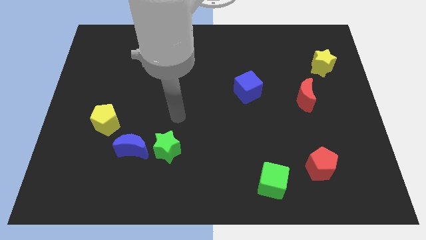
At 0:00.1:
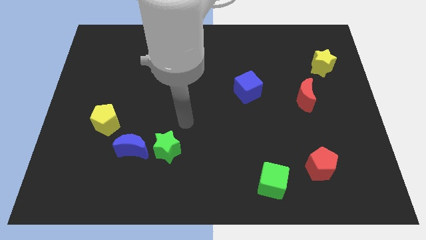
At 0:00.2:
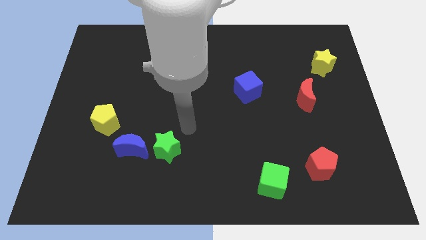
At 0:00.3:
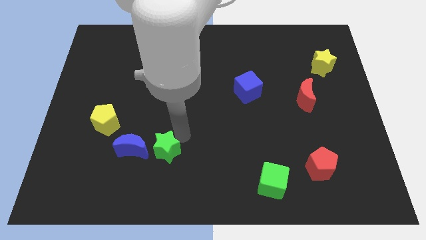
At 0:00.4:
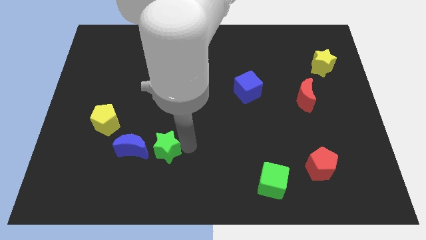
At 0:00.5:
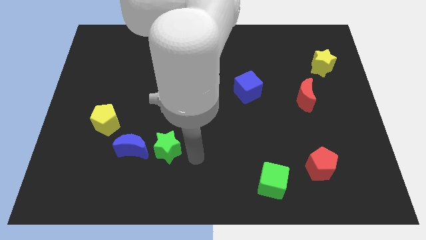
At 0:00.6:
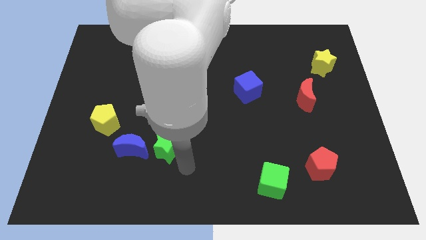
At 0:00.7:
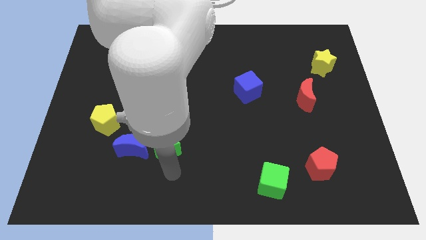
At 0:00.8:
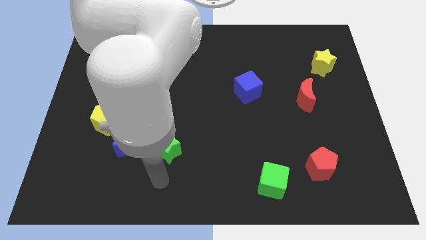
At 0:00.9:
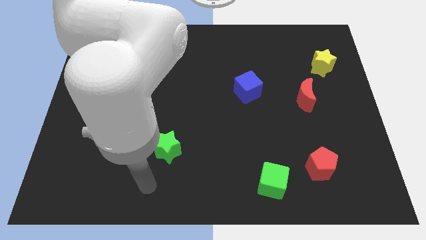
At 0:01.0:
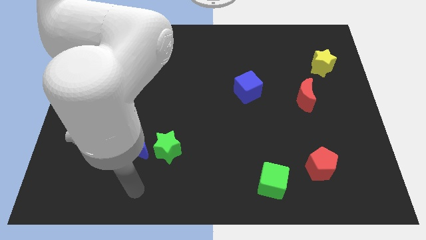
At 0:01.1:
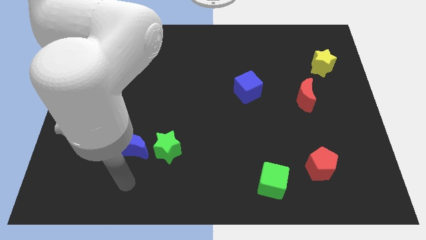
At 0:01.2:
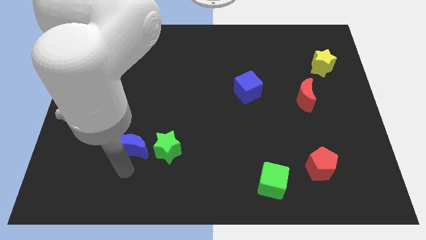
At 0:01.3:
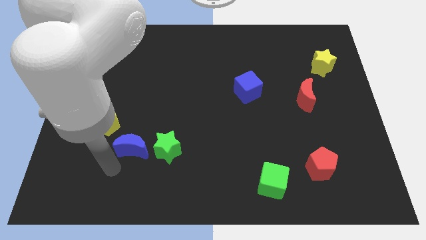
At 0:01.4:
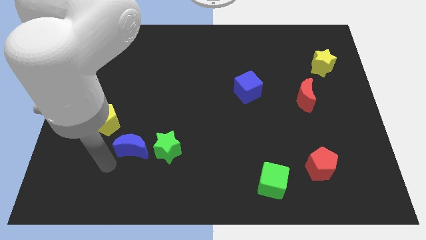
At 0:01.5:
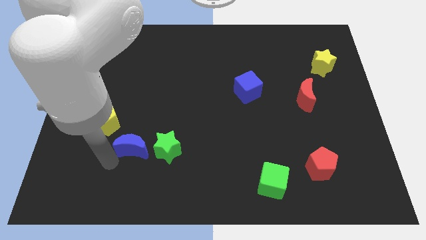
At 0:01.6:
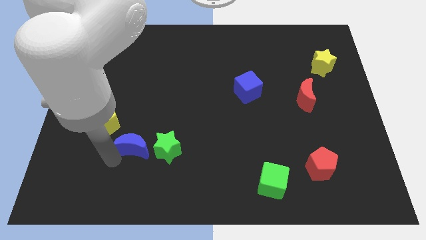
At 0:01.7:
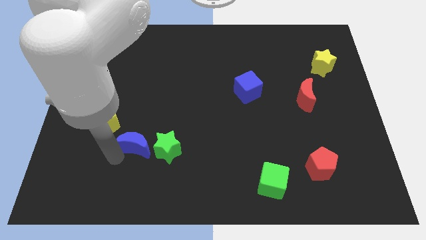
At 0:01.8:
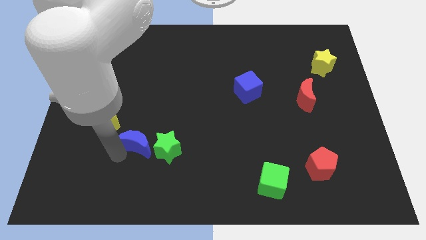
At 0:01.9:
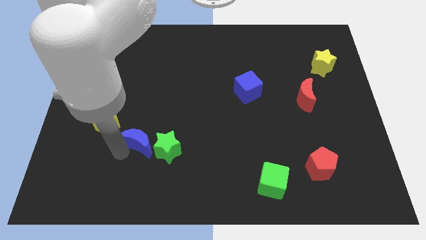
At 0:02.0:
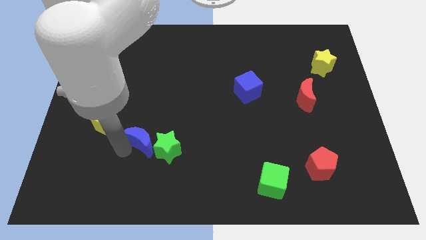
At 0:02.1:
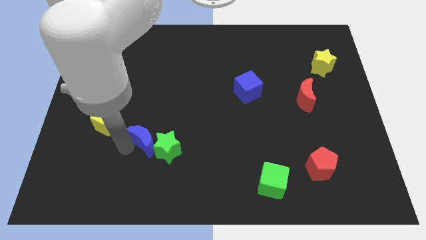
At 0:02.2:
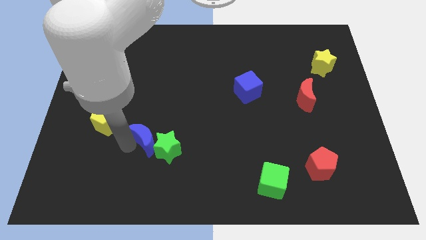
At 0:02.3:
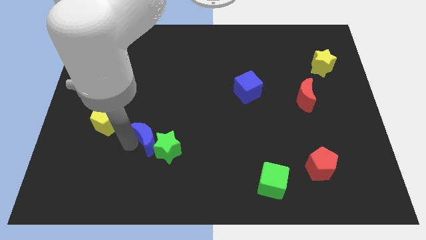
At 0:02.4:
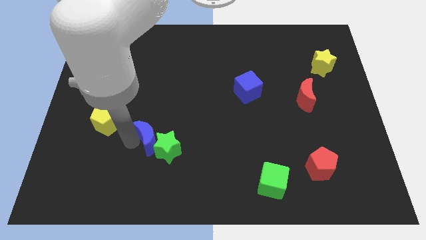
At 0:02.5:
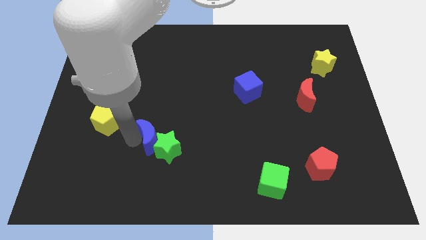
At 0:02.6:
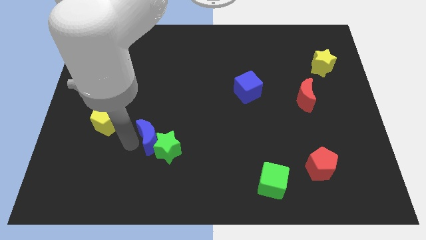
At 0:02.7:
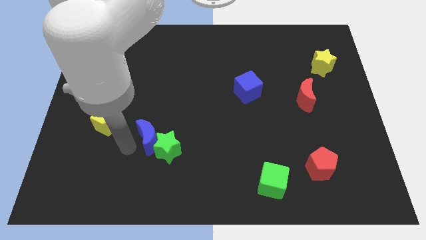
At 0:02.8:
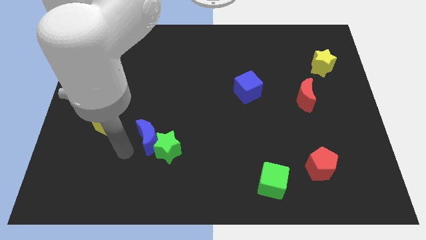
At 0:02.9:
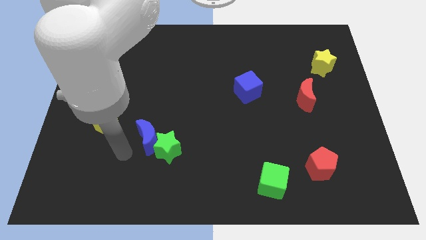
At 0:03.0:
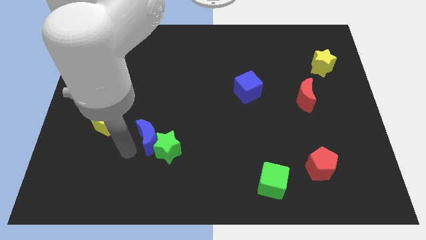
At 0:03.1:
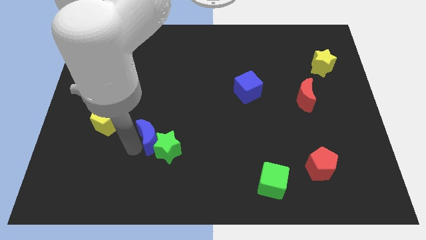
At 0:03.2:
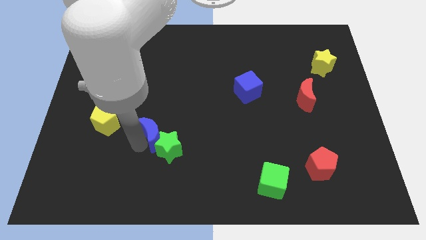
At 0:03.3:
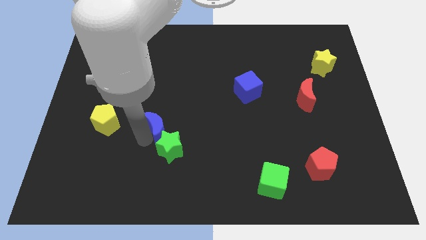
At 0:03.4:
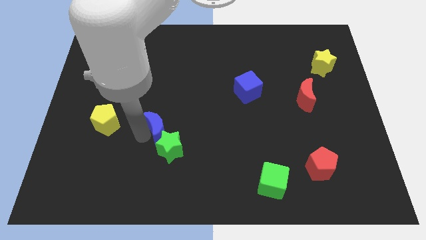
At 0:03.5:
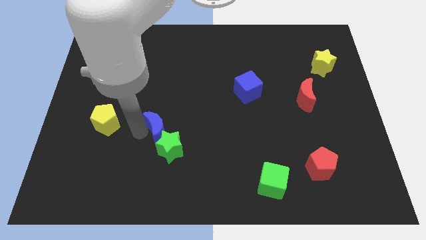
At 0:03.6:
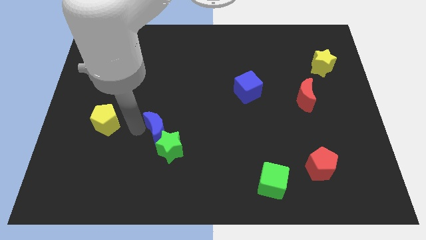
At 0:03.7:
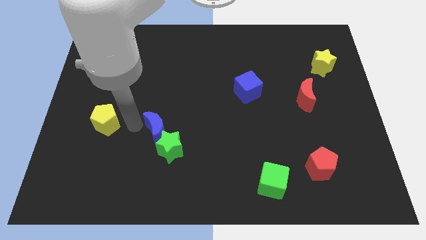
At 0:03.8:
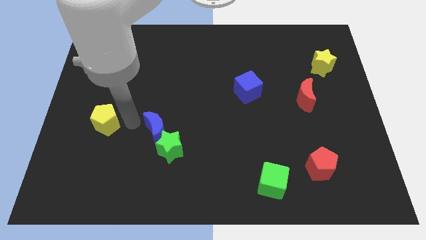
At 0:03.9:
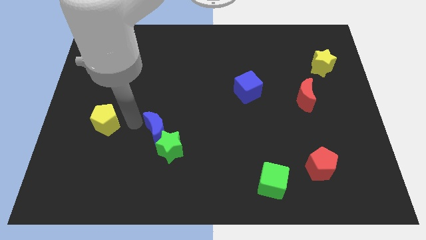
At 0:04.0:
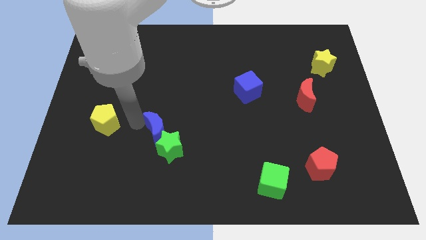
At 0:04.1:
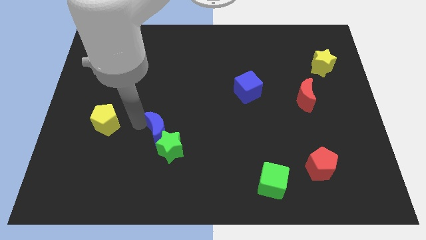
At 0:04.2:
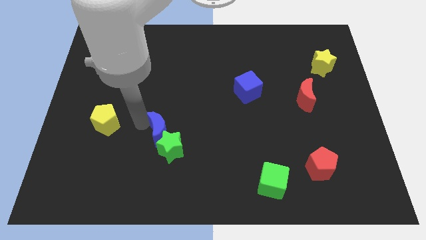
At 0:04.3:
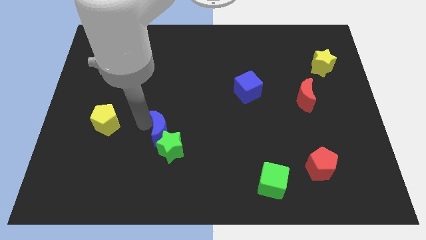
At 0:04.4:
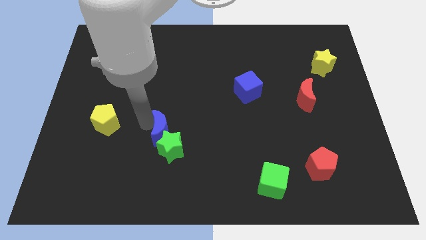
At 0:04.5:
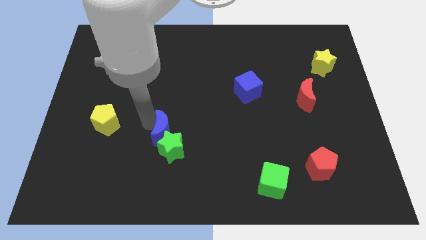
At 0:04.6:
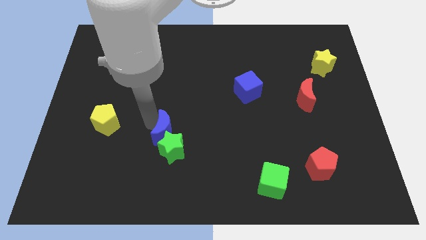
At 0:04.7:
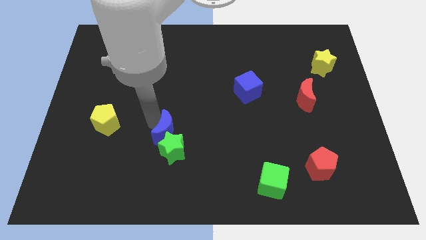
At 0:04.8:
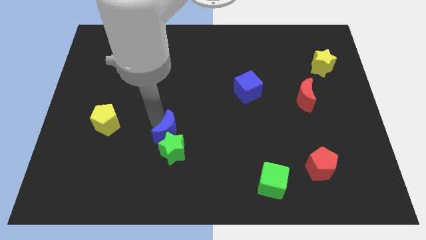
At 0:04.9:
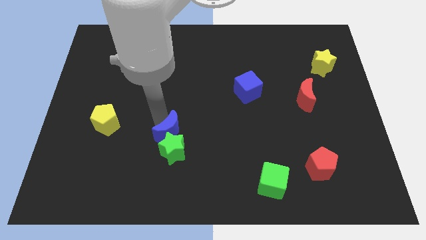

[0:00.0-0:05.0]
push the blue moon a little to the right

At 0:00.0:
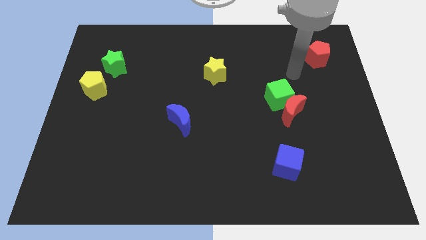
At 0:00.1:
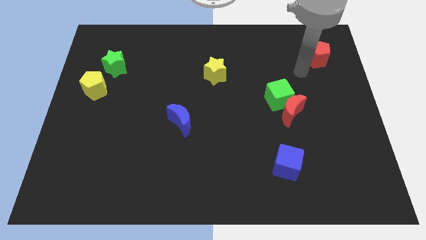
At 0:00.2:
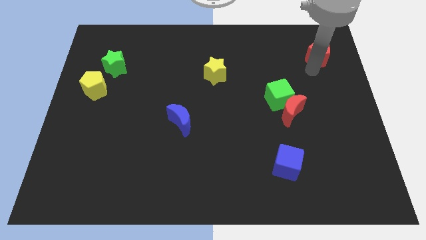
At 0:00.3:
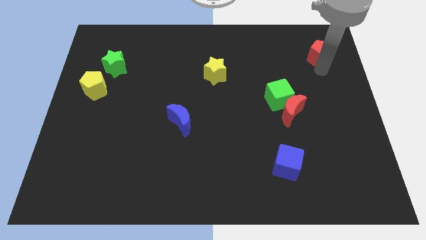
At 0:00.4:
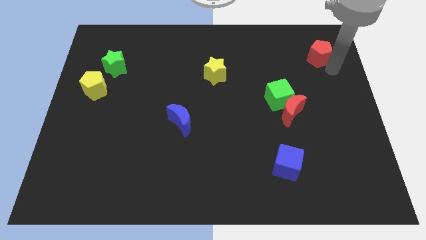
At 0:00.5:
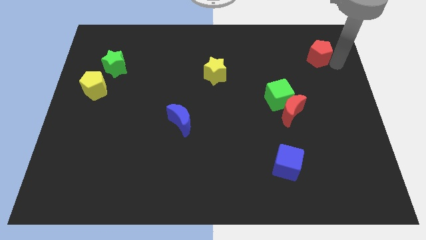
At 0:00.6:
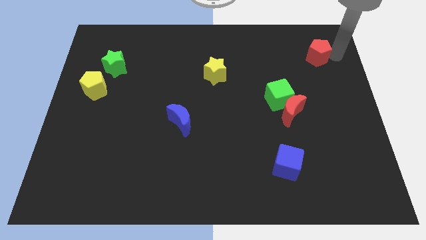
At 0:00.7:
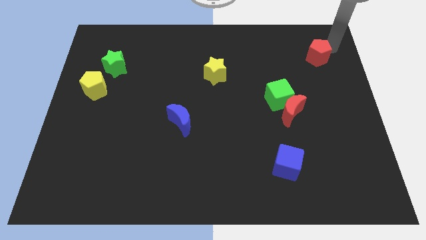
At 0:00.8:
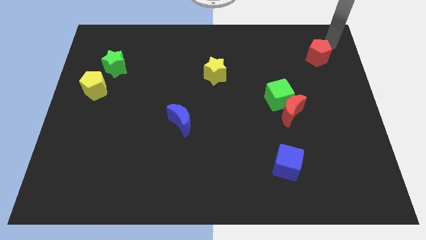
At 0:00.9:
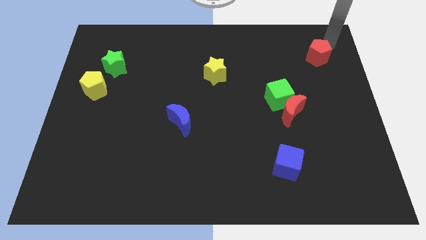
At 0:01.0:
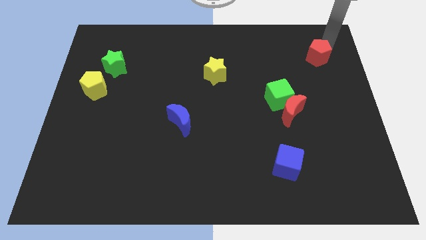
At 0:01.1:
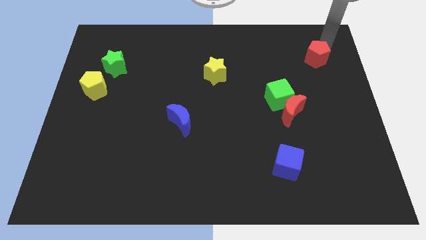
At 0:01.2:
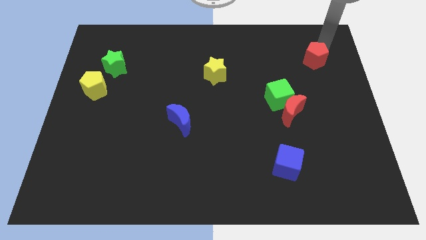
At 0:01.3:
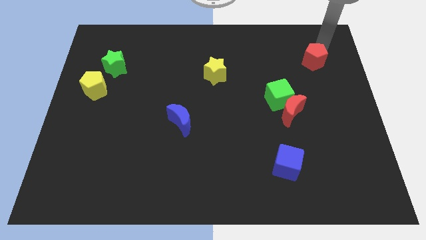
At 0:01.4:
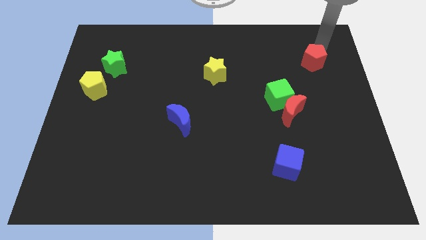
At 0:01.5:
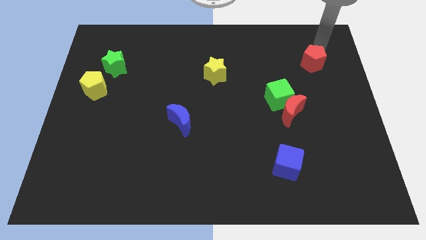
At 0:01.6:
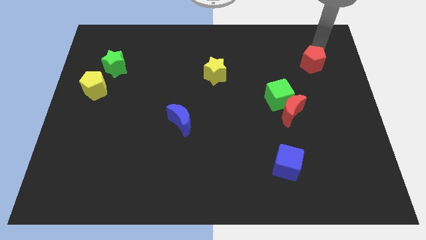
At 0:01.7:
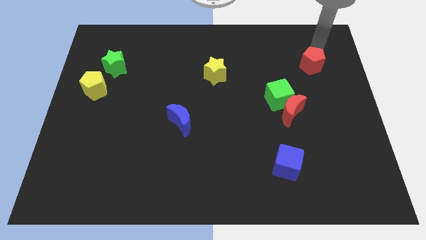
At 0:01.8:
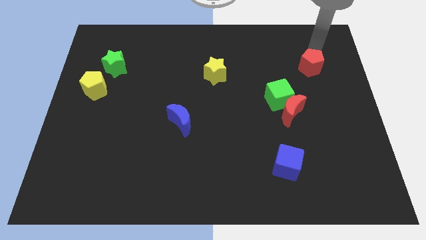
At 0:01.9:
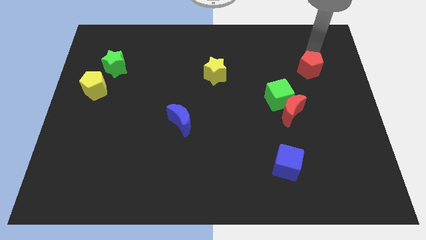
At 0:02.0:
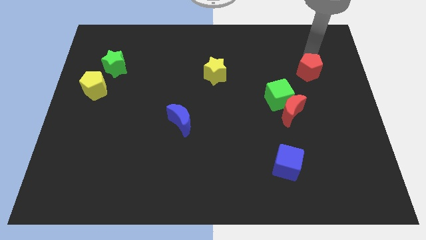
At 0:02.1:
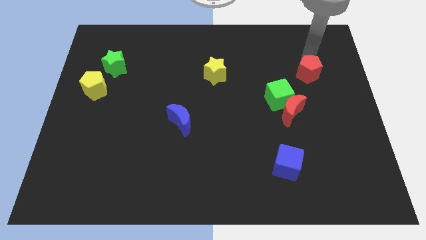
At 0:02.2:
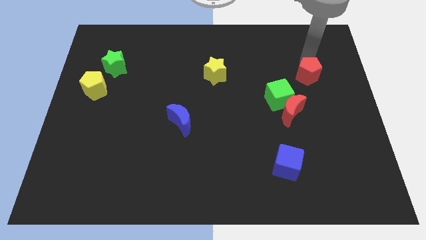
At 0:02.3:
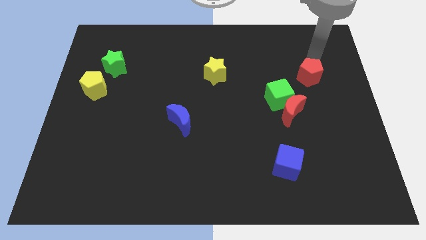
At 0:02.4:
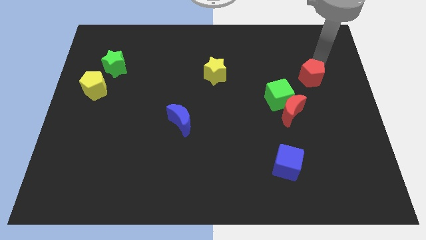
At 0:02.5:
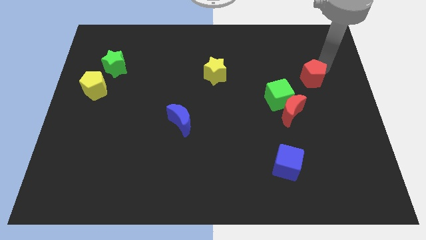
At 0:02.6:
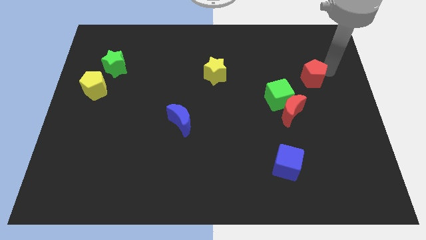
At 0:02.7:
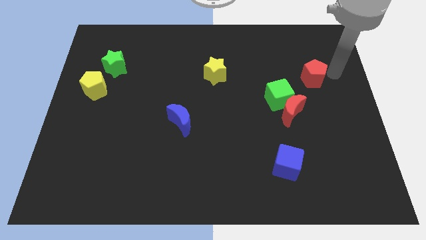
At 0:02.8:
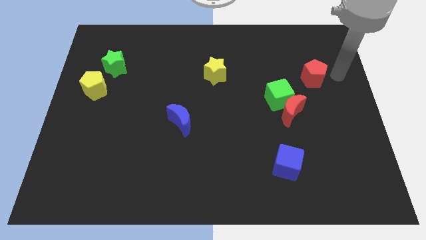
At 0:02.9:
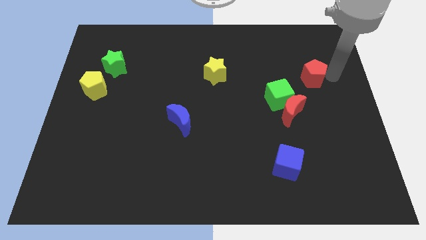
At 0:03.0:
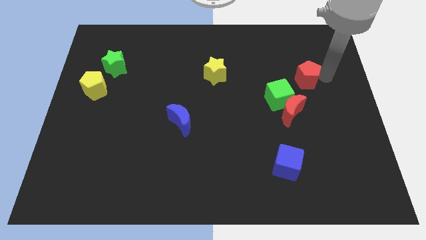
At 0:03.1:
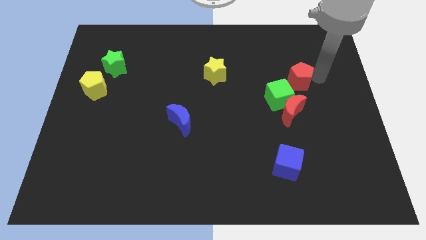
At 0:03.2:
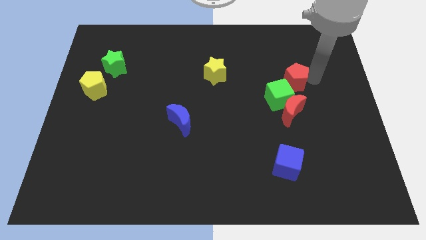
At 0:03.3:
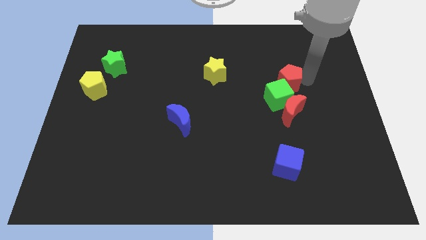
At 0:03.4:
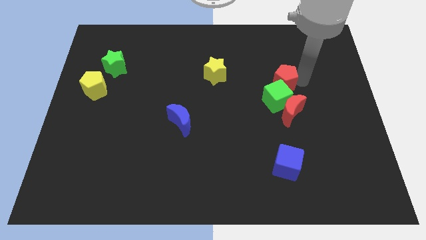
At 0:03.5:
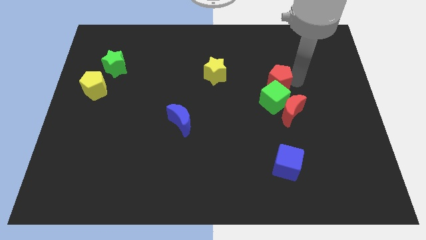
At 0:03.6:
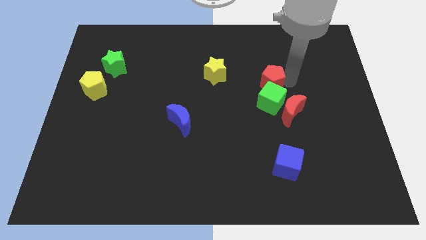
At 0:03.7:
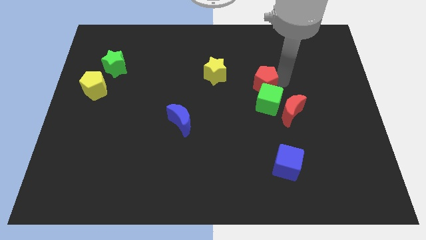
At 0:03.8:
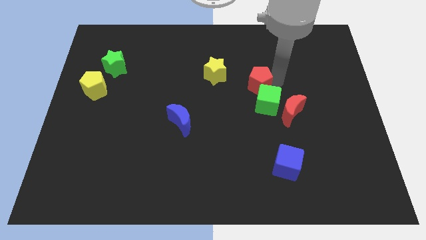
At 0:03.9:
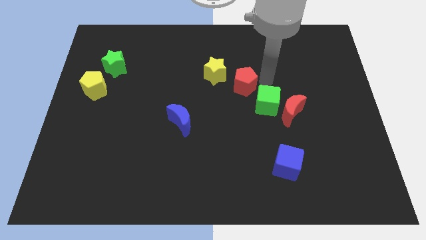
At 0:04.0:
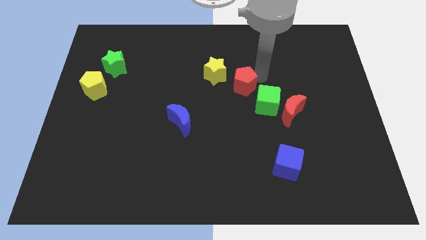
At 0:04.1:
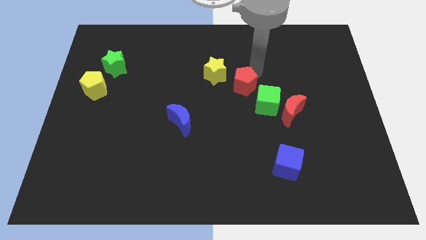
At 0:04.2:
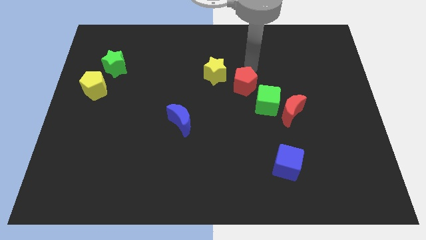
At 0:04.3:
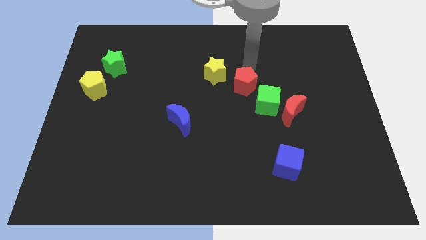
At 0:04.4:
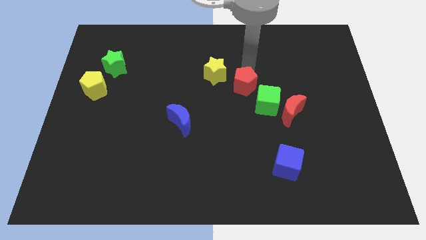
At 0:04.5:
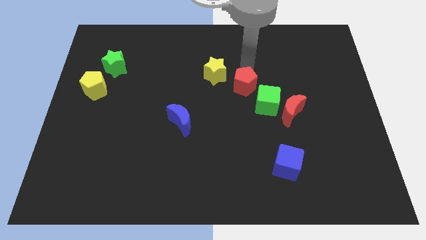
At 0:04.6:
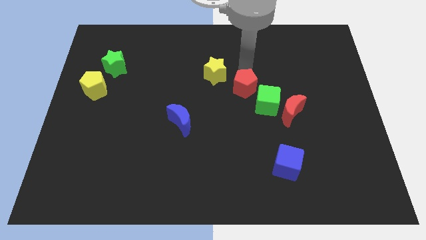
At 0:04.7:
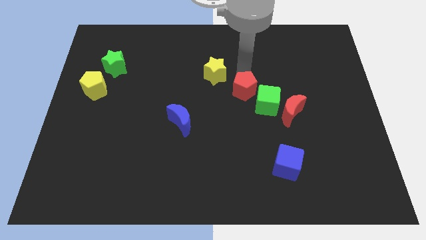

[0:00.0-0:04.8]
move the red pentagon downwards and to the left
